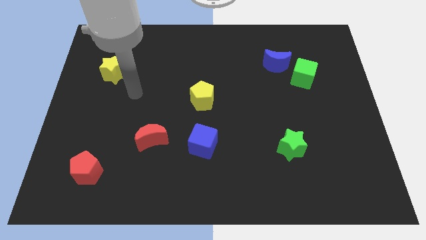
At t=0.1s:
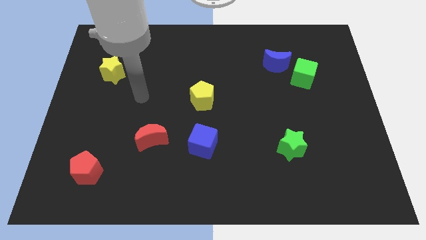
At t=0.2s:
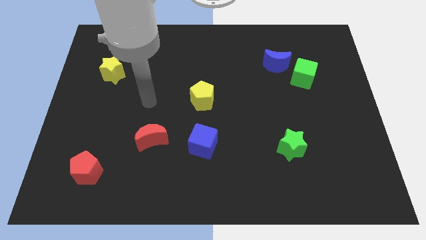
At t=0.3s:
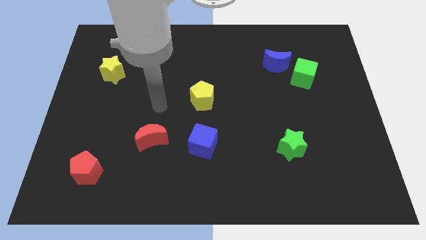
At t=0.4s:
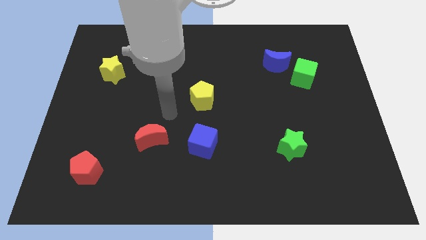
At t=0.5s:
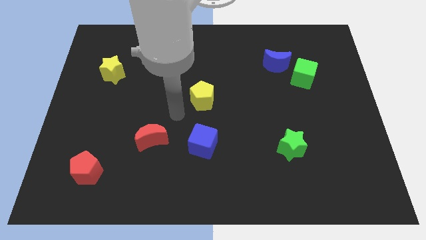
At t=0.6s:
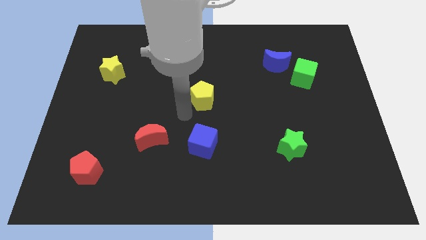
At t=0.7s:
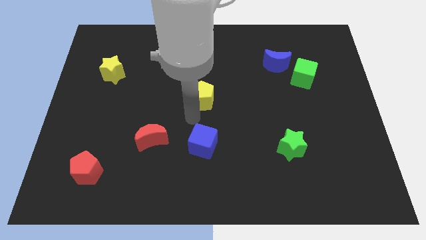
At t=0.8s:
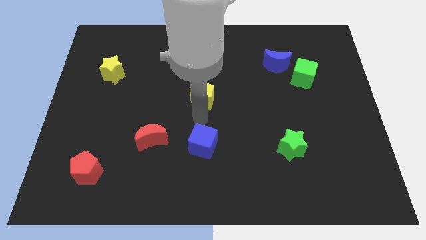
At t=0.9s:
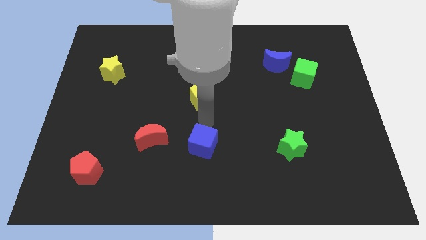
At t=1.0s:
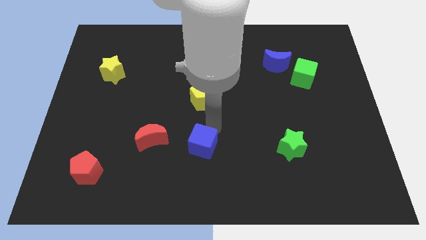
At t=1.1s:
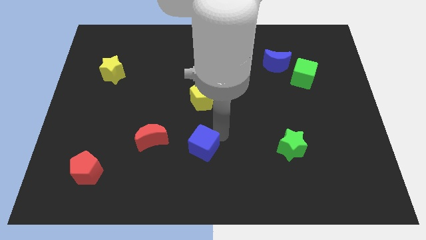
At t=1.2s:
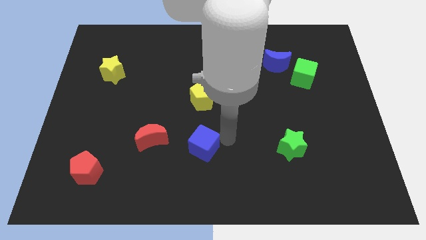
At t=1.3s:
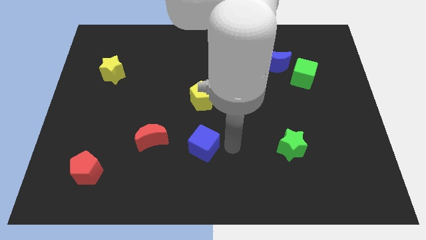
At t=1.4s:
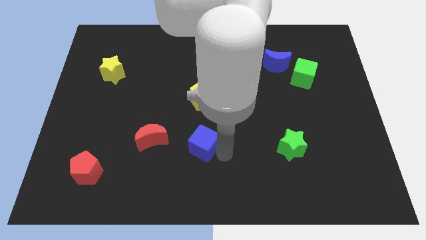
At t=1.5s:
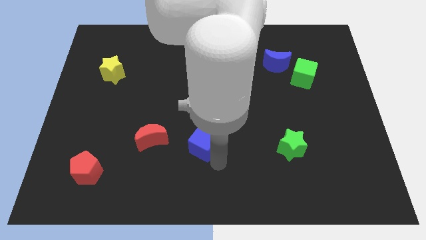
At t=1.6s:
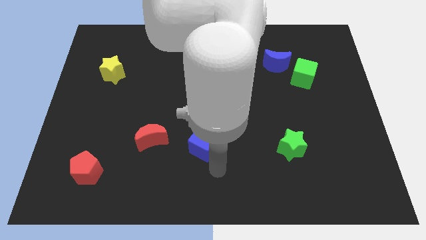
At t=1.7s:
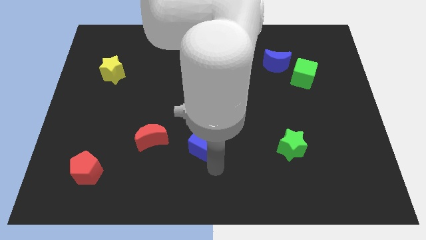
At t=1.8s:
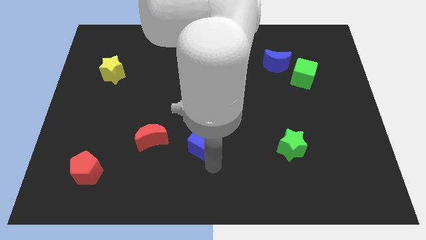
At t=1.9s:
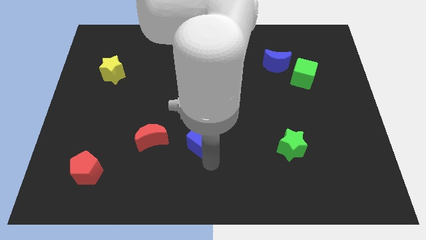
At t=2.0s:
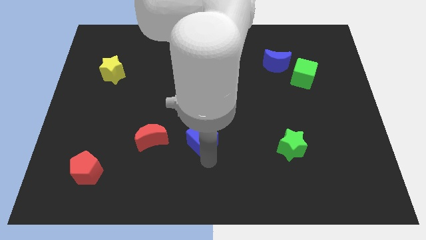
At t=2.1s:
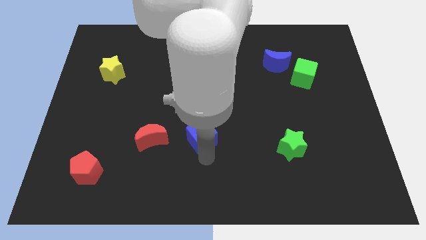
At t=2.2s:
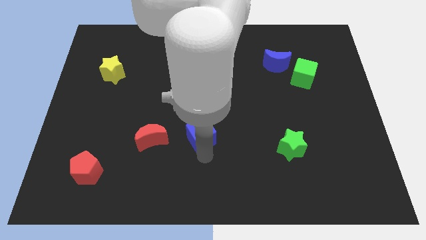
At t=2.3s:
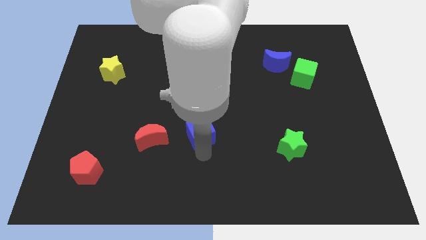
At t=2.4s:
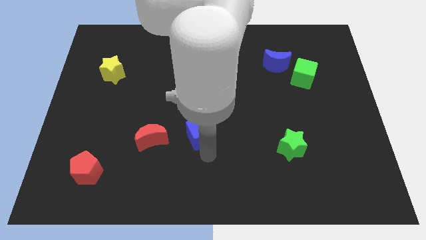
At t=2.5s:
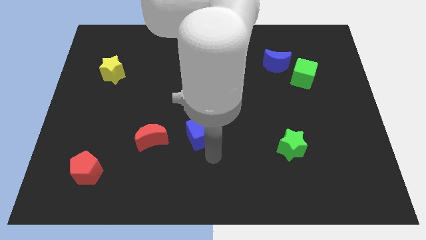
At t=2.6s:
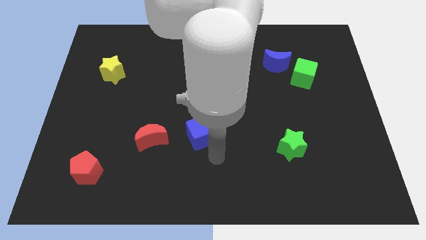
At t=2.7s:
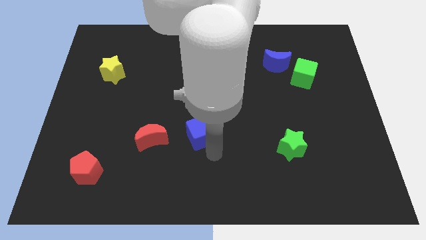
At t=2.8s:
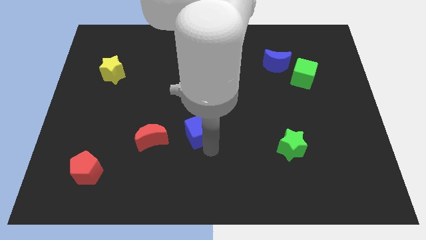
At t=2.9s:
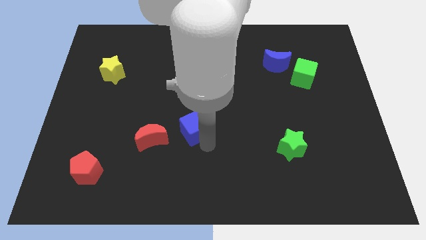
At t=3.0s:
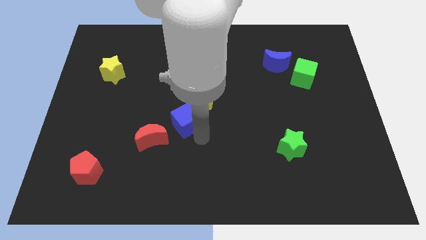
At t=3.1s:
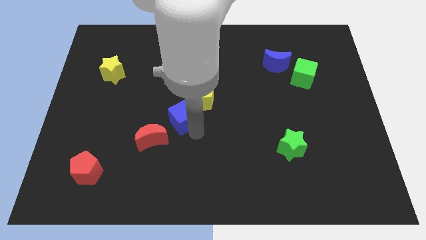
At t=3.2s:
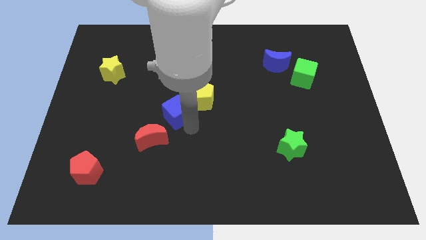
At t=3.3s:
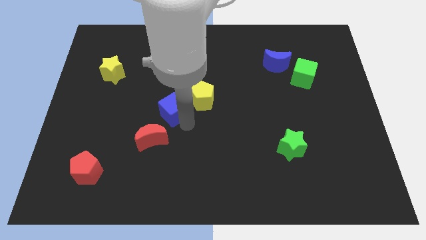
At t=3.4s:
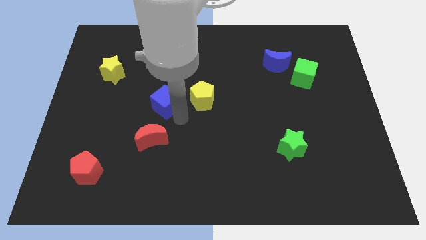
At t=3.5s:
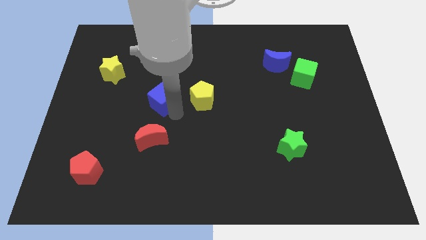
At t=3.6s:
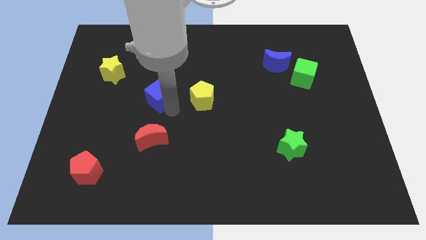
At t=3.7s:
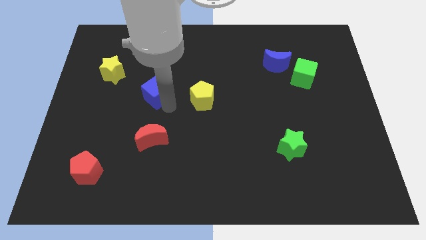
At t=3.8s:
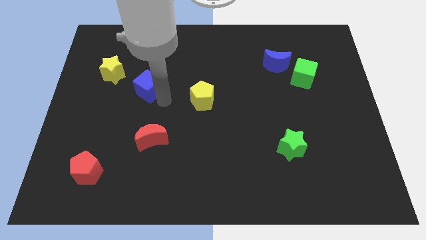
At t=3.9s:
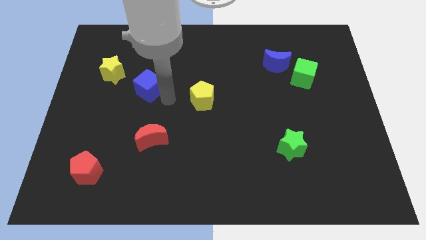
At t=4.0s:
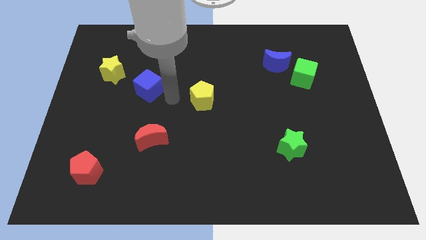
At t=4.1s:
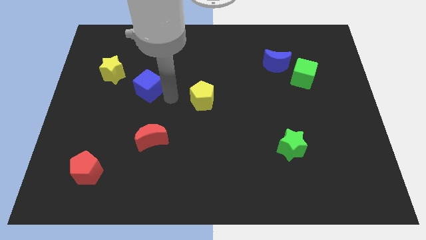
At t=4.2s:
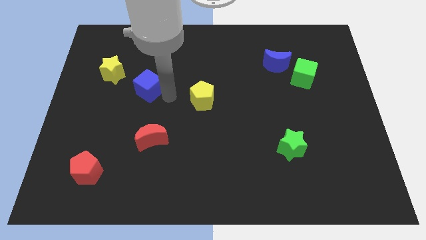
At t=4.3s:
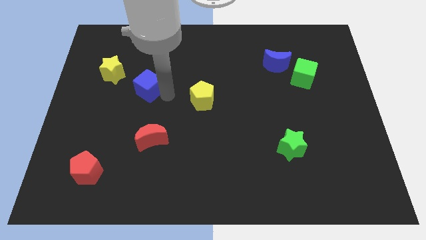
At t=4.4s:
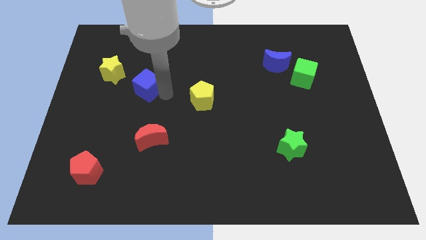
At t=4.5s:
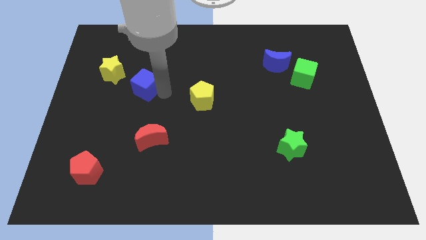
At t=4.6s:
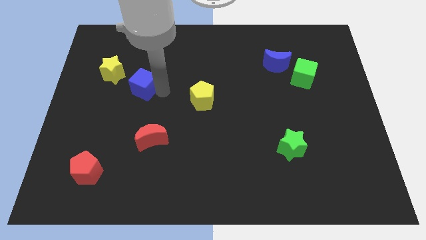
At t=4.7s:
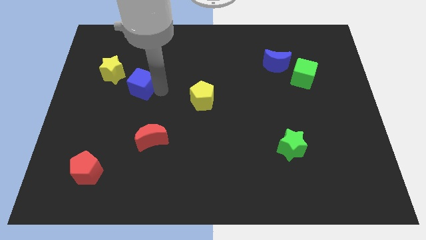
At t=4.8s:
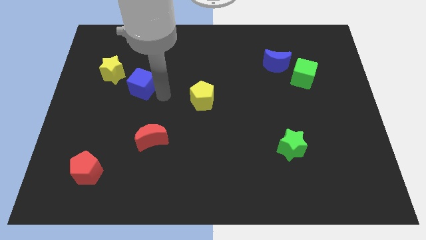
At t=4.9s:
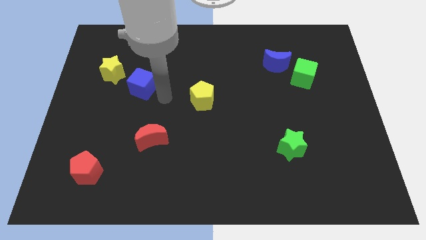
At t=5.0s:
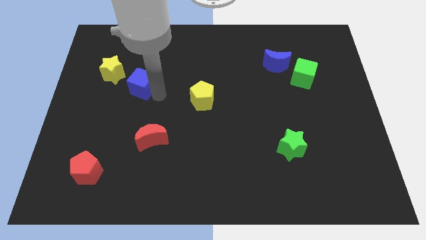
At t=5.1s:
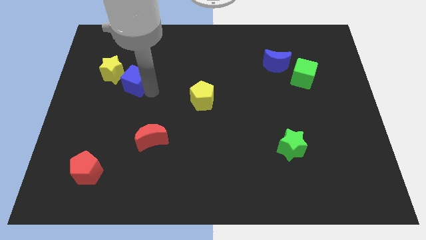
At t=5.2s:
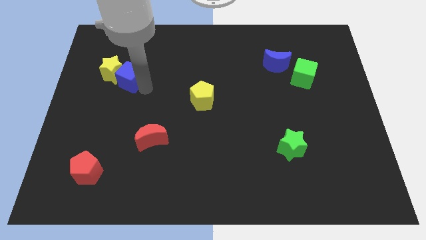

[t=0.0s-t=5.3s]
move the blue cube close to the yellow star

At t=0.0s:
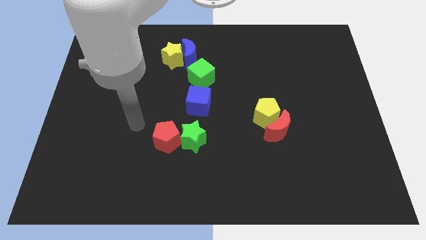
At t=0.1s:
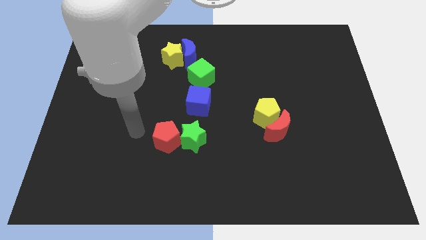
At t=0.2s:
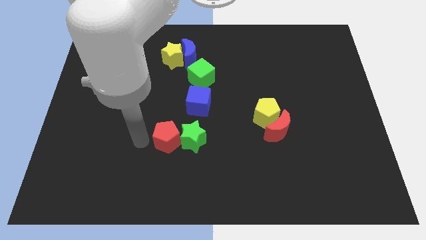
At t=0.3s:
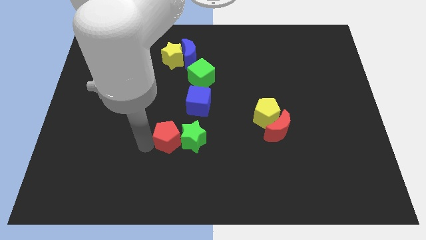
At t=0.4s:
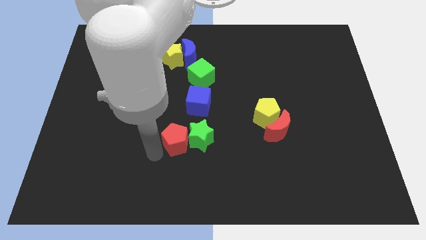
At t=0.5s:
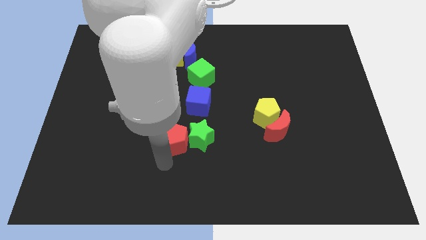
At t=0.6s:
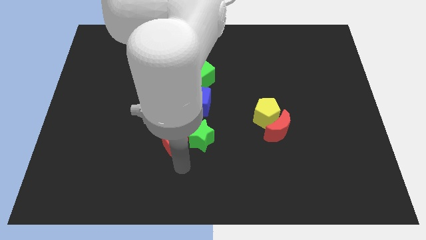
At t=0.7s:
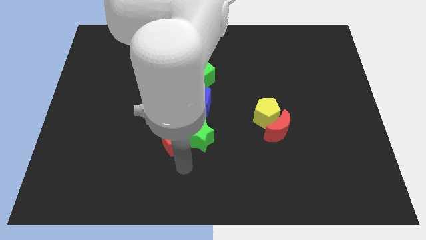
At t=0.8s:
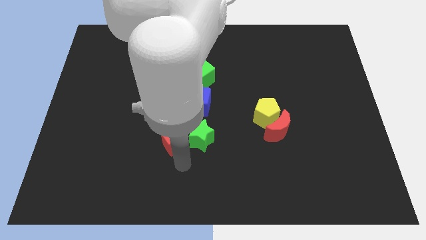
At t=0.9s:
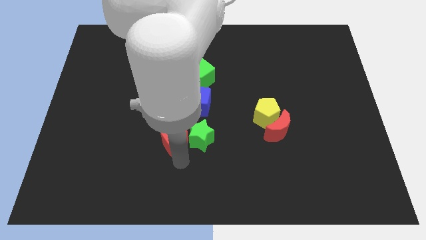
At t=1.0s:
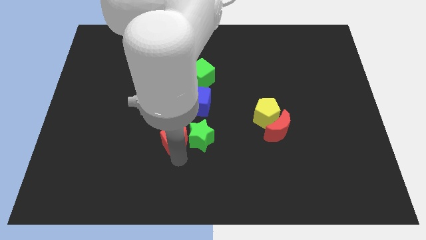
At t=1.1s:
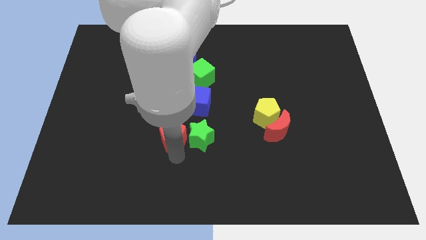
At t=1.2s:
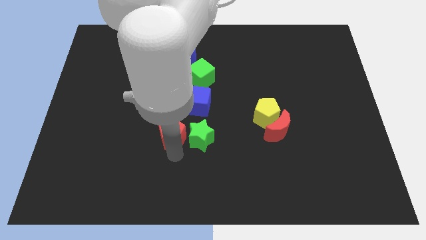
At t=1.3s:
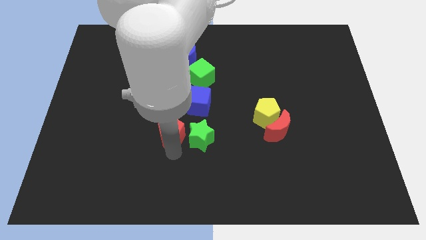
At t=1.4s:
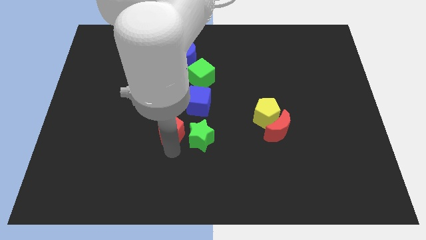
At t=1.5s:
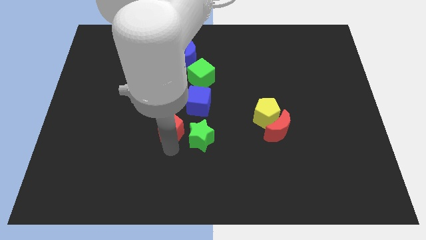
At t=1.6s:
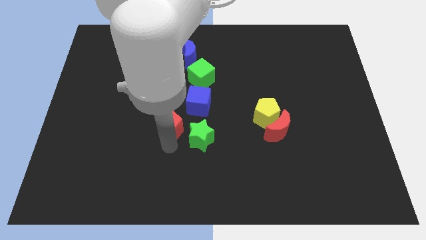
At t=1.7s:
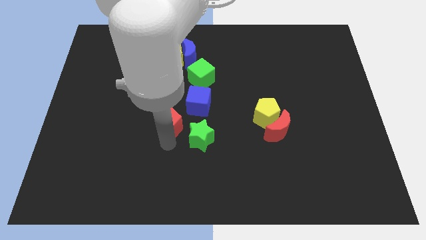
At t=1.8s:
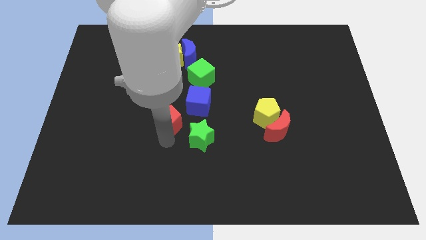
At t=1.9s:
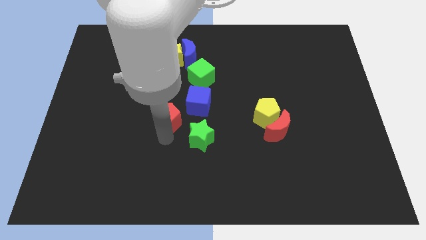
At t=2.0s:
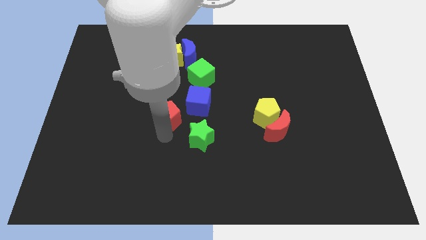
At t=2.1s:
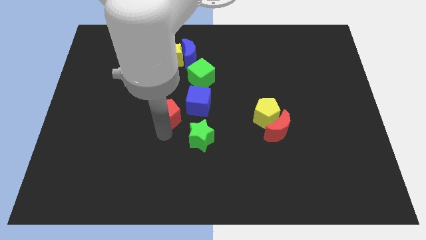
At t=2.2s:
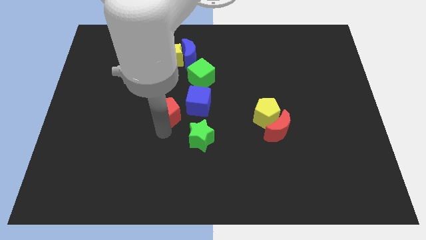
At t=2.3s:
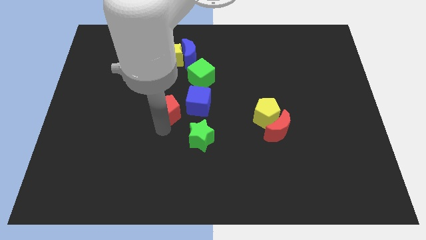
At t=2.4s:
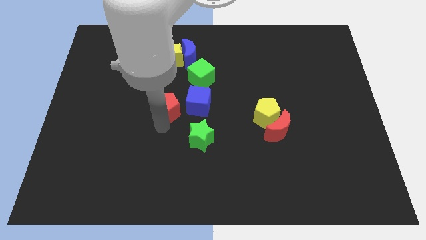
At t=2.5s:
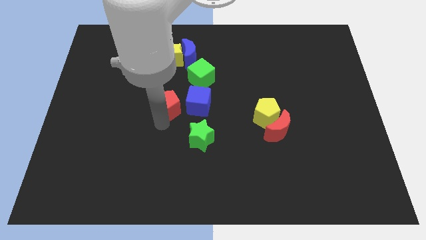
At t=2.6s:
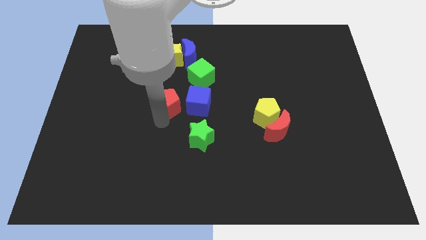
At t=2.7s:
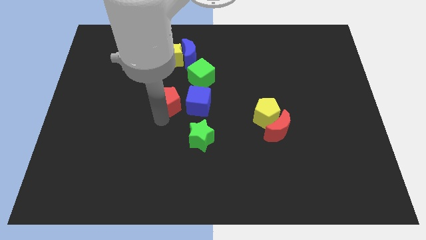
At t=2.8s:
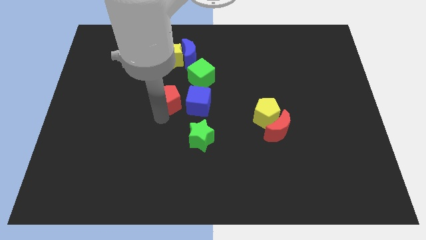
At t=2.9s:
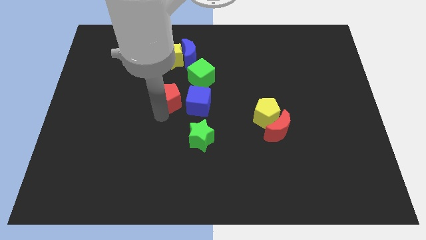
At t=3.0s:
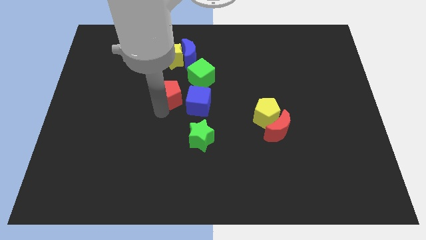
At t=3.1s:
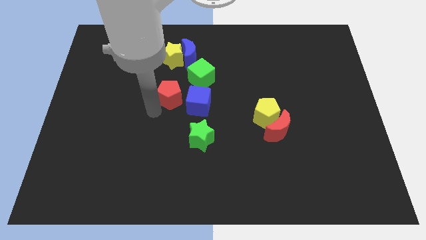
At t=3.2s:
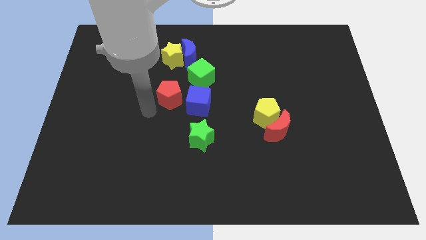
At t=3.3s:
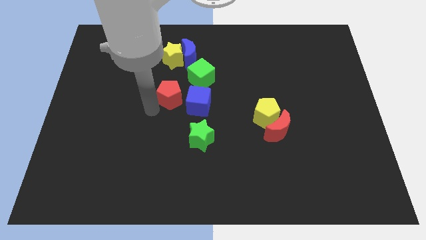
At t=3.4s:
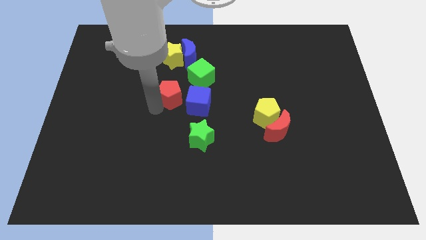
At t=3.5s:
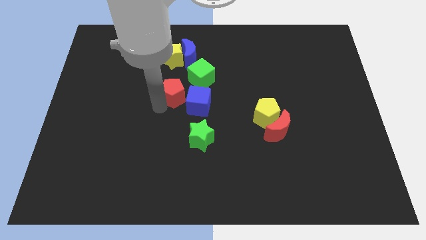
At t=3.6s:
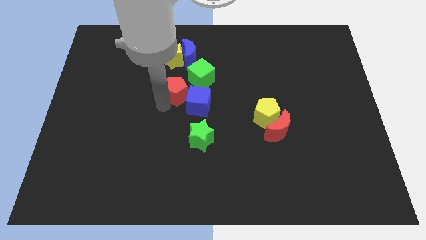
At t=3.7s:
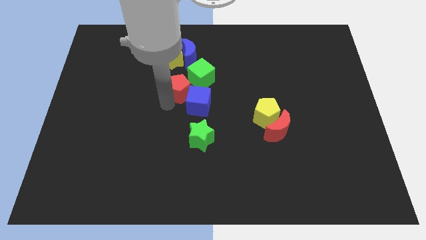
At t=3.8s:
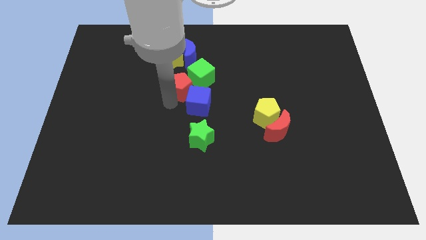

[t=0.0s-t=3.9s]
push the red pentagon to the green cube
